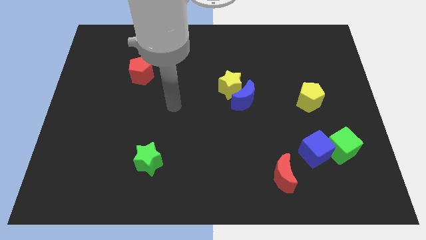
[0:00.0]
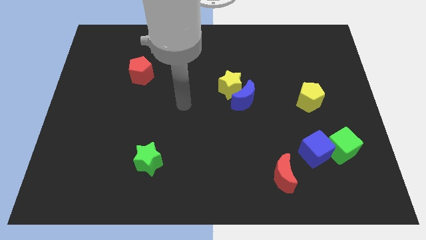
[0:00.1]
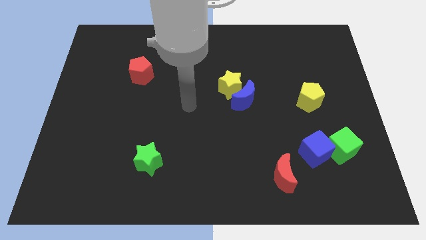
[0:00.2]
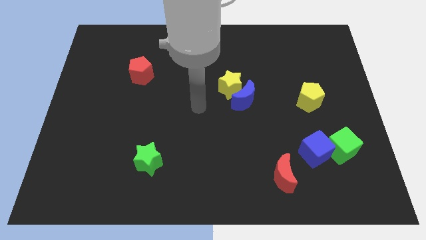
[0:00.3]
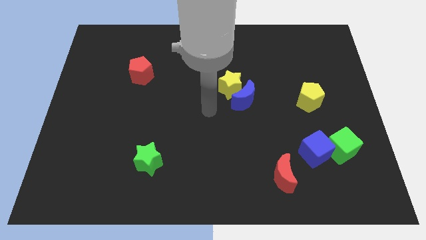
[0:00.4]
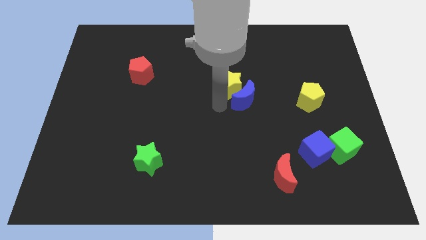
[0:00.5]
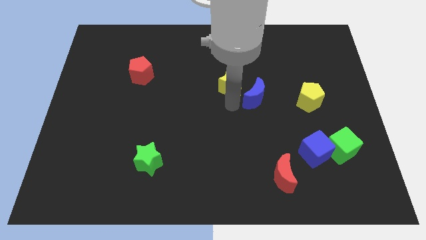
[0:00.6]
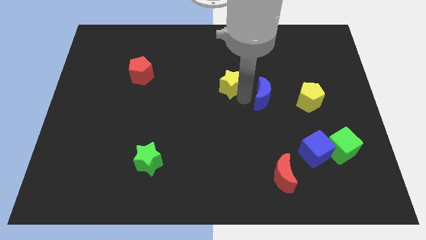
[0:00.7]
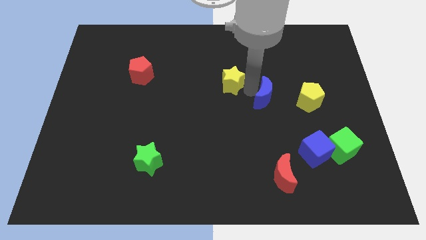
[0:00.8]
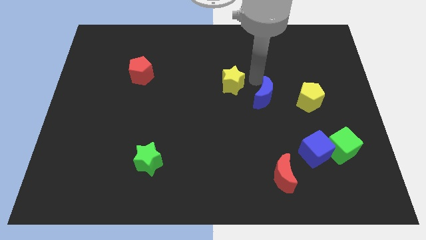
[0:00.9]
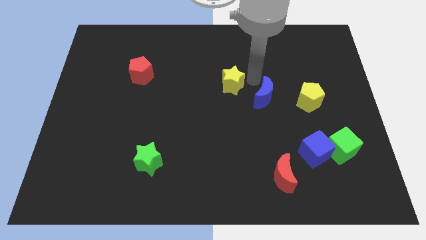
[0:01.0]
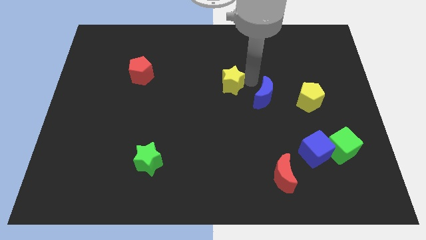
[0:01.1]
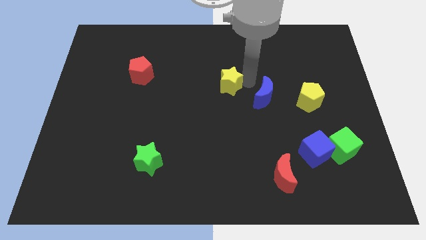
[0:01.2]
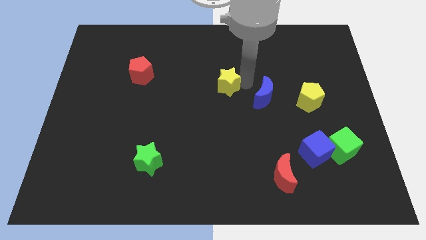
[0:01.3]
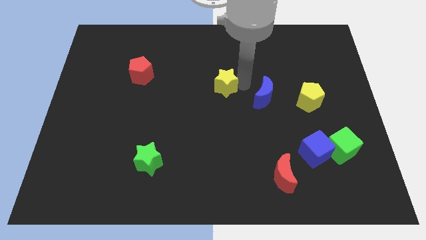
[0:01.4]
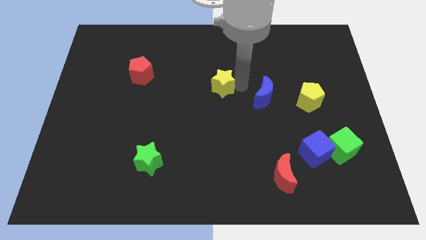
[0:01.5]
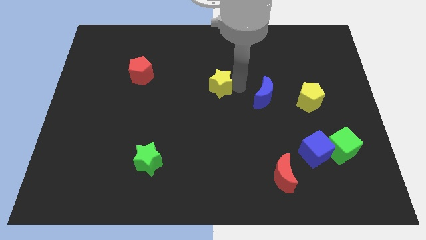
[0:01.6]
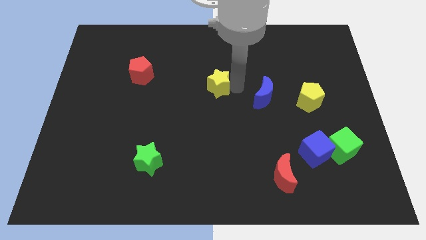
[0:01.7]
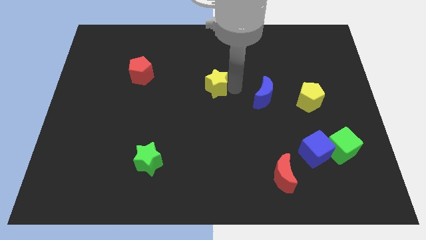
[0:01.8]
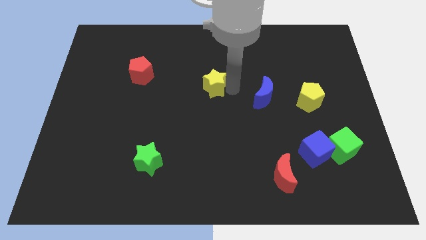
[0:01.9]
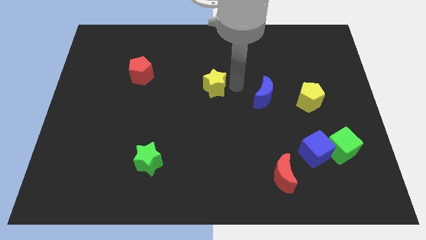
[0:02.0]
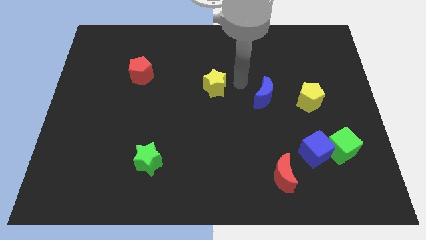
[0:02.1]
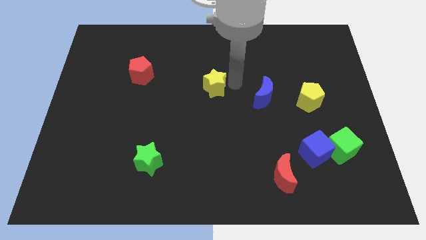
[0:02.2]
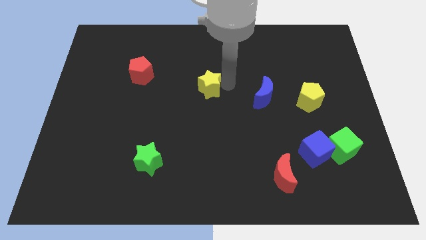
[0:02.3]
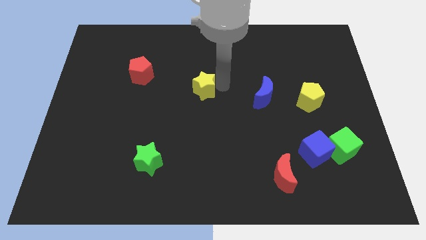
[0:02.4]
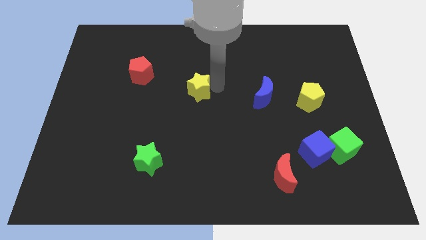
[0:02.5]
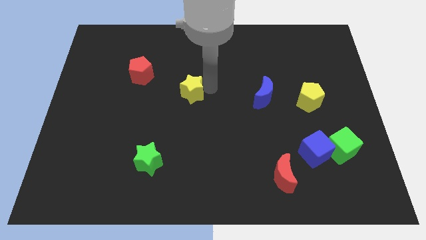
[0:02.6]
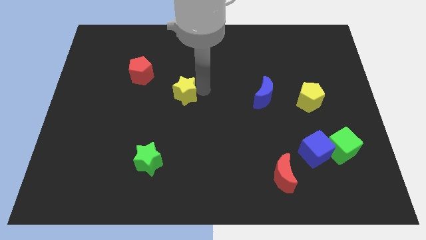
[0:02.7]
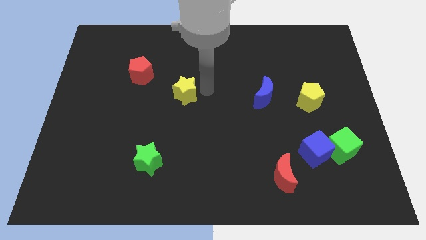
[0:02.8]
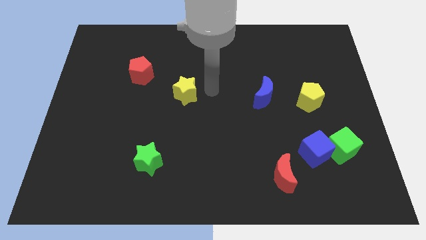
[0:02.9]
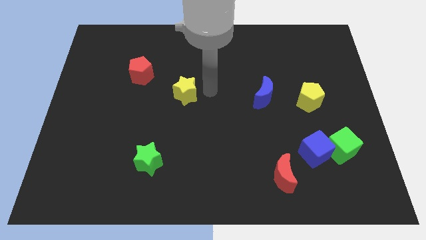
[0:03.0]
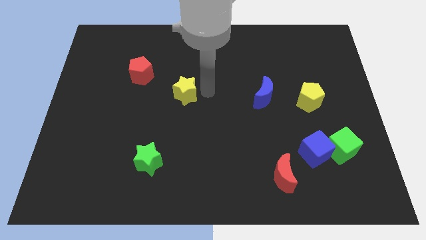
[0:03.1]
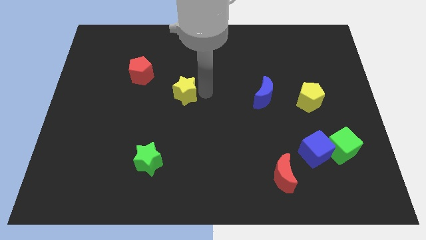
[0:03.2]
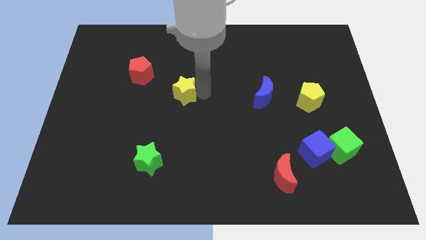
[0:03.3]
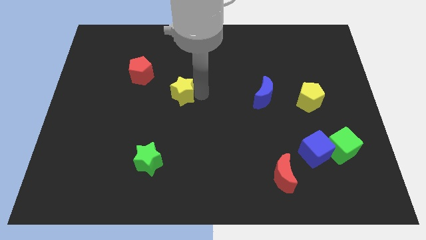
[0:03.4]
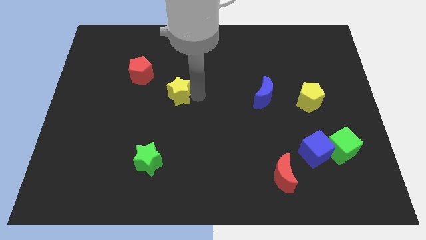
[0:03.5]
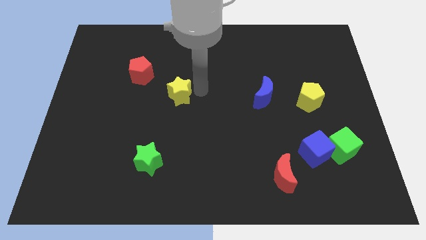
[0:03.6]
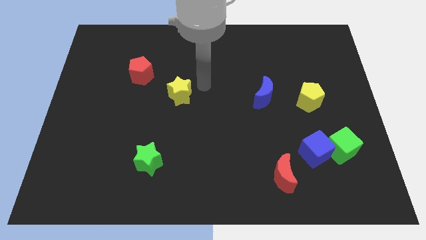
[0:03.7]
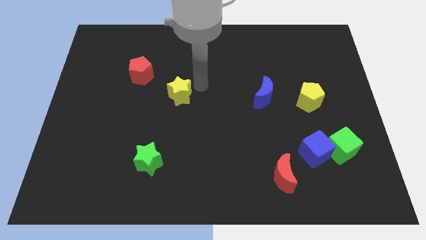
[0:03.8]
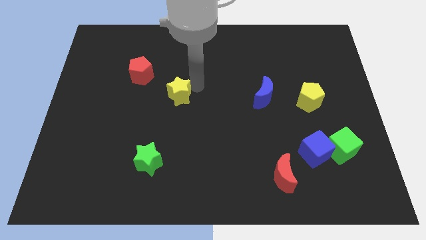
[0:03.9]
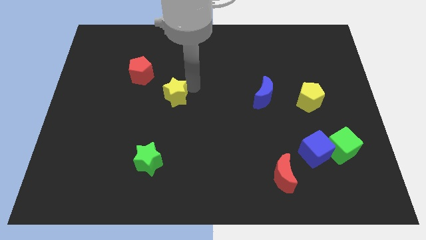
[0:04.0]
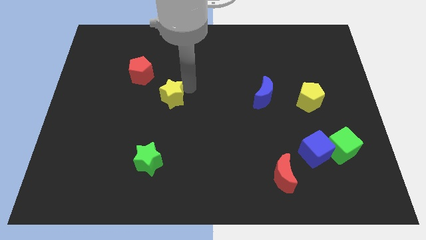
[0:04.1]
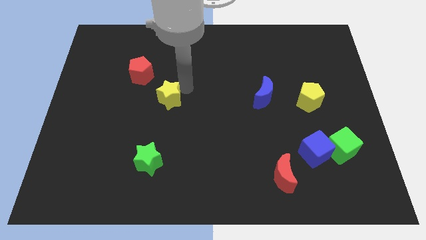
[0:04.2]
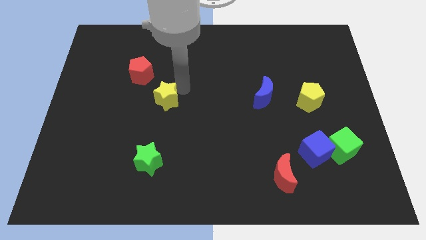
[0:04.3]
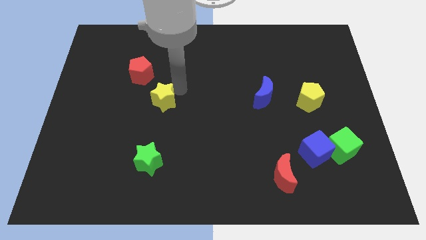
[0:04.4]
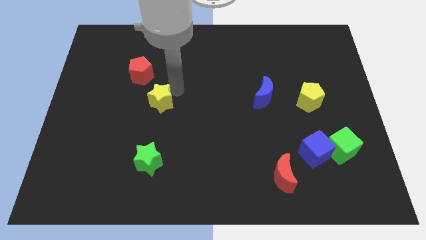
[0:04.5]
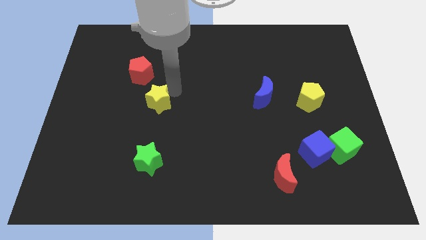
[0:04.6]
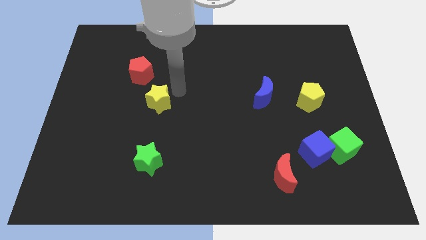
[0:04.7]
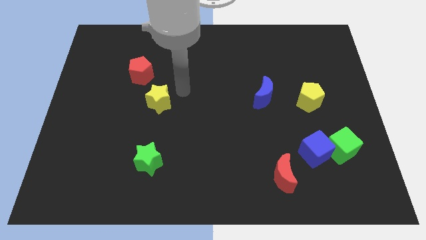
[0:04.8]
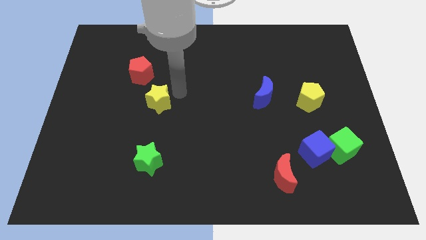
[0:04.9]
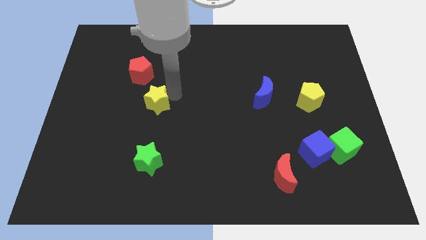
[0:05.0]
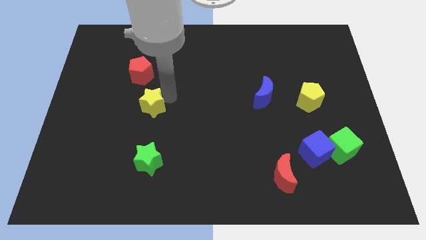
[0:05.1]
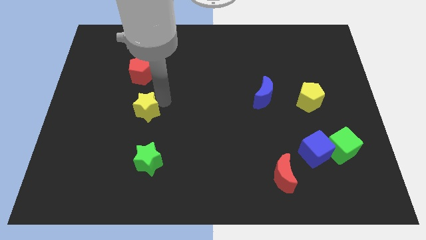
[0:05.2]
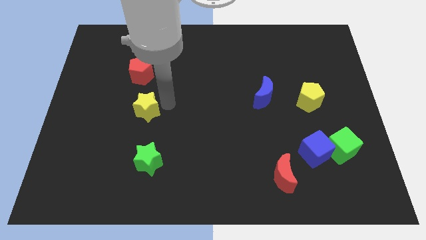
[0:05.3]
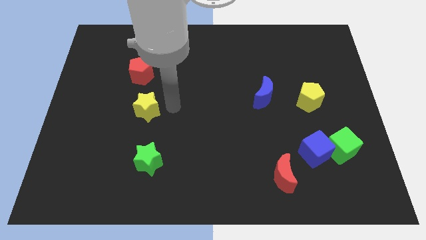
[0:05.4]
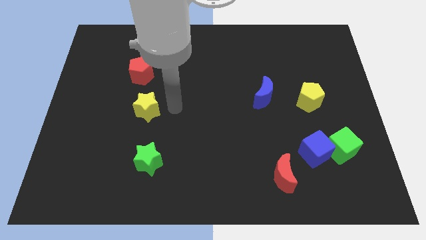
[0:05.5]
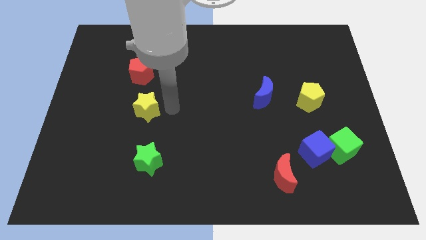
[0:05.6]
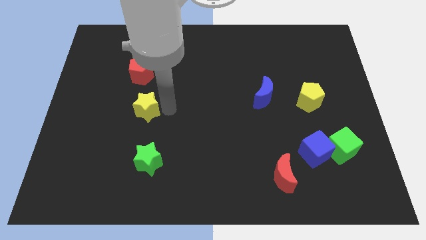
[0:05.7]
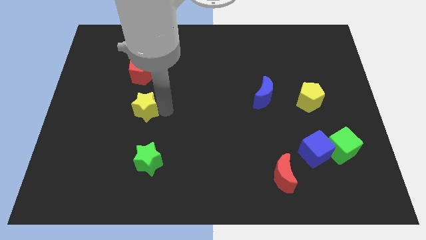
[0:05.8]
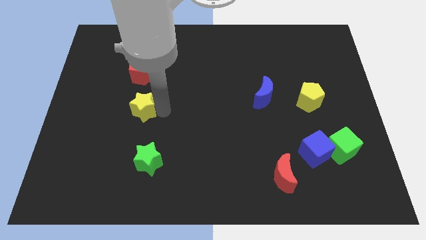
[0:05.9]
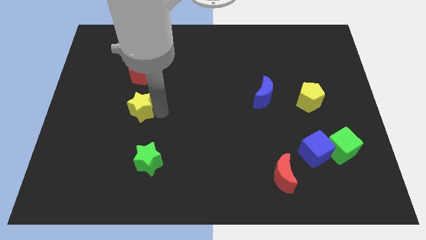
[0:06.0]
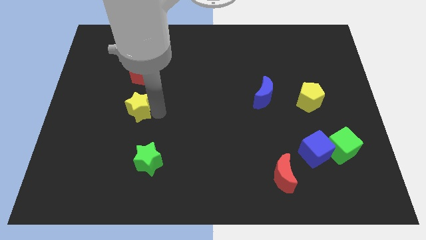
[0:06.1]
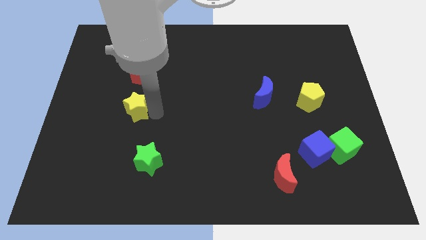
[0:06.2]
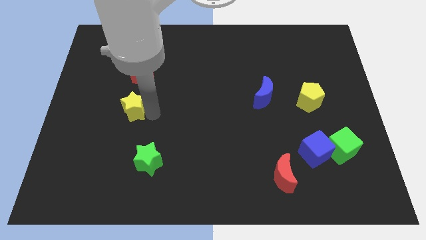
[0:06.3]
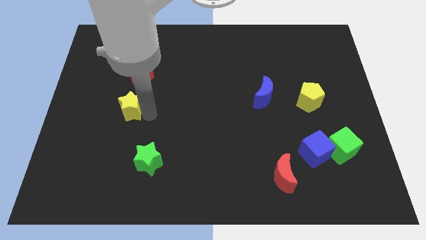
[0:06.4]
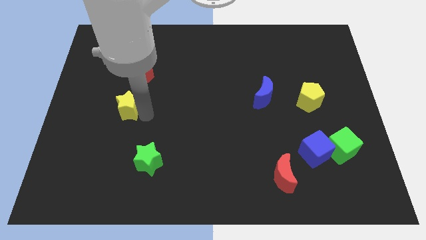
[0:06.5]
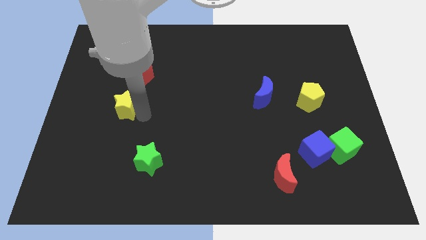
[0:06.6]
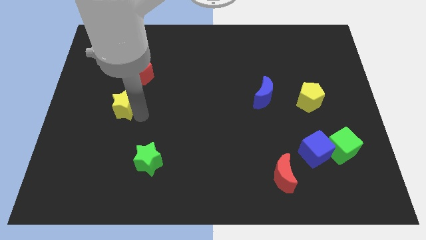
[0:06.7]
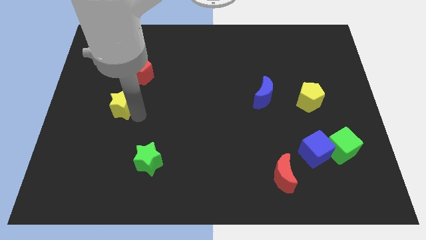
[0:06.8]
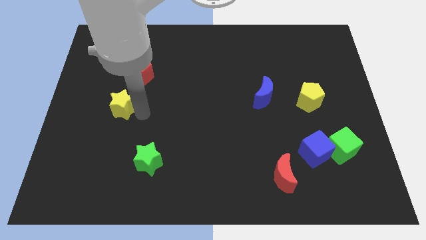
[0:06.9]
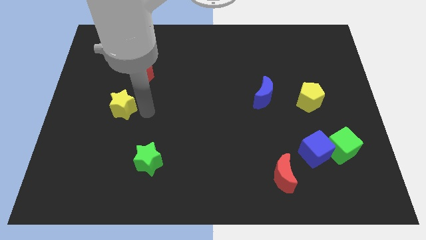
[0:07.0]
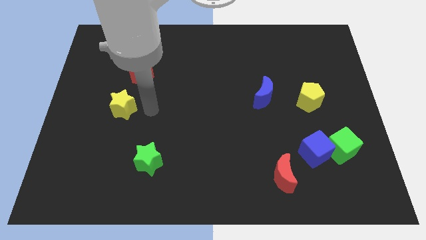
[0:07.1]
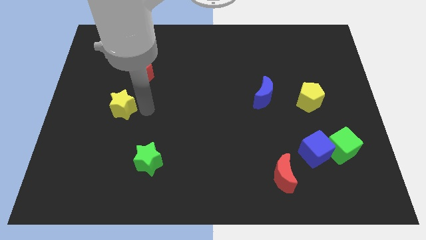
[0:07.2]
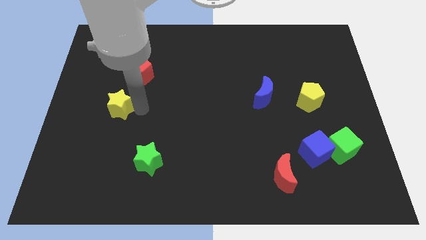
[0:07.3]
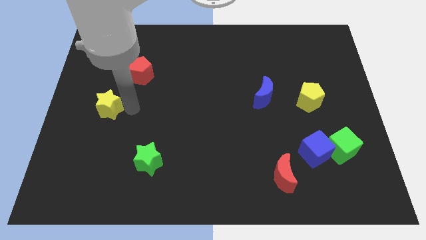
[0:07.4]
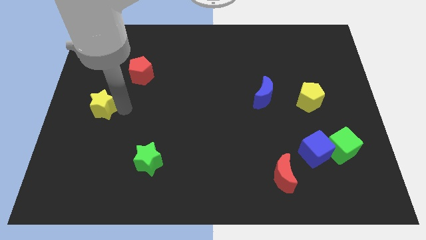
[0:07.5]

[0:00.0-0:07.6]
push the yellow star to the center left
